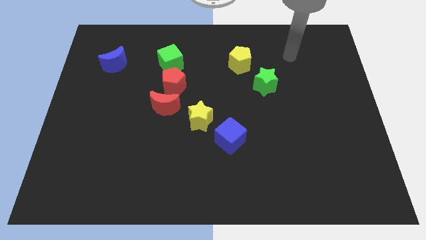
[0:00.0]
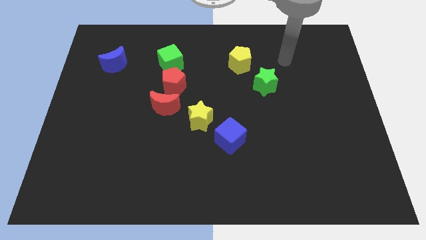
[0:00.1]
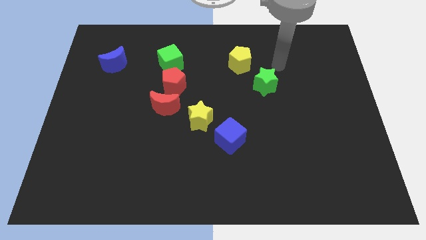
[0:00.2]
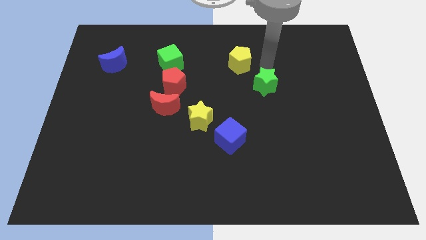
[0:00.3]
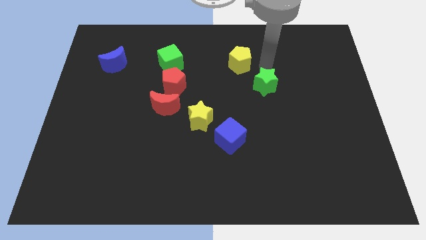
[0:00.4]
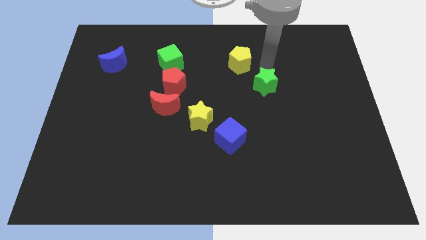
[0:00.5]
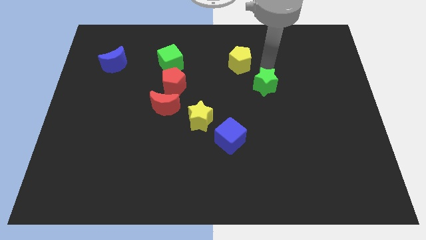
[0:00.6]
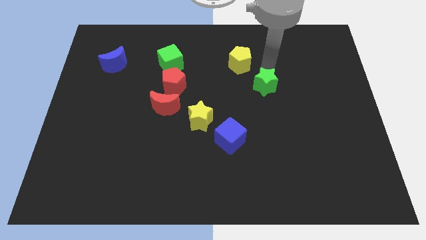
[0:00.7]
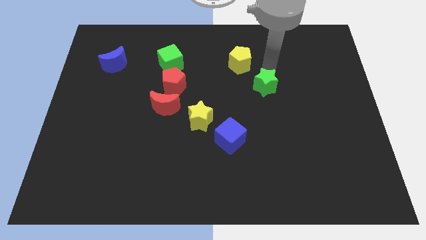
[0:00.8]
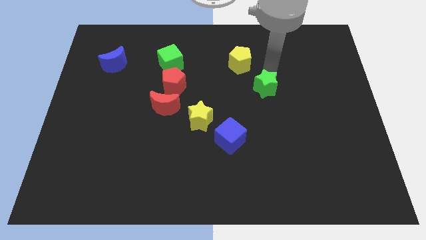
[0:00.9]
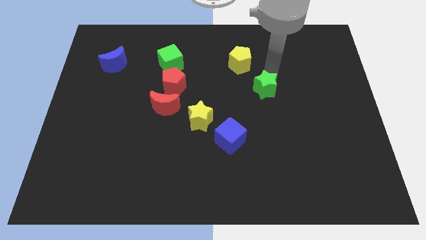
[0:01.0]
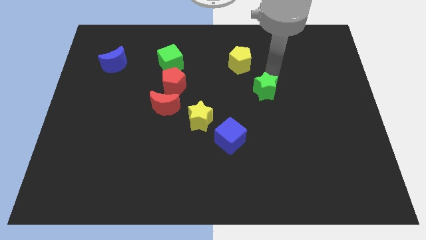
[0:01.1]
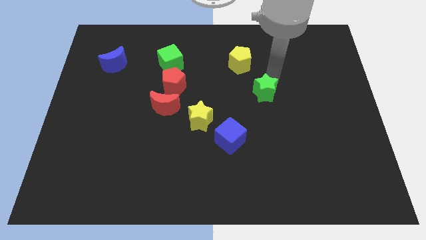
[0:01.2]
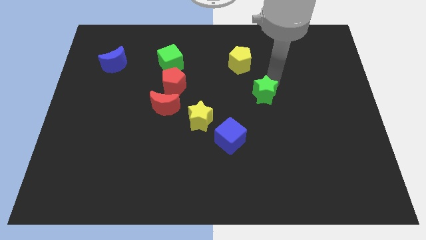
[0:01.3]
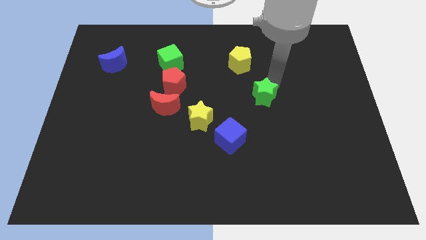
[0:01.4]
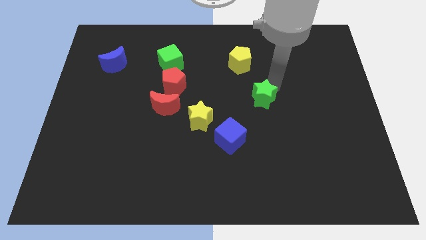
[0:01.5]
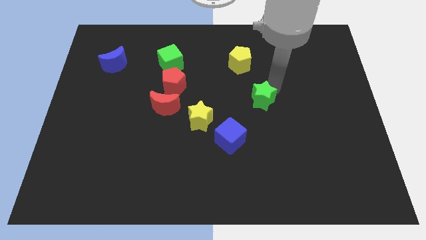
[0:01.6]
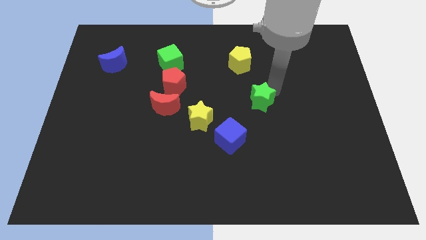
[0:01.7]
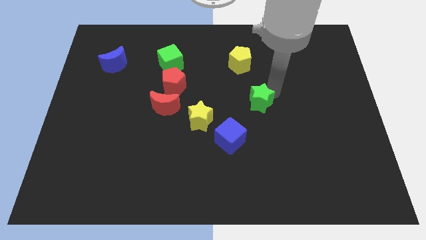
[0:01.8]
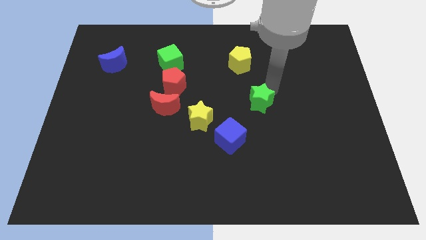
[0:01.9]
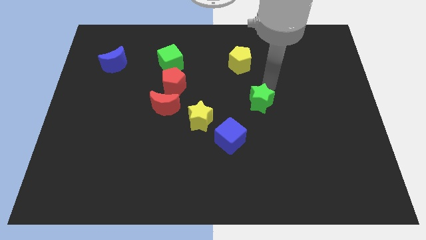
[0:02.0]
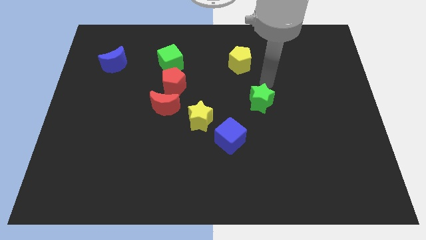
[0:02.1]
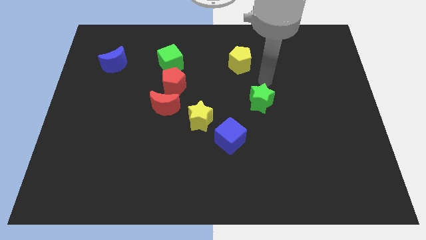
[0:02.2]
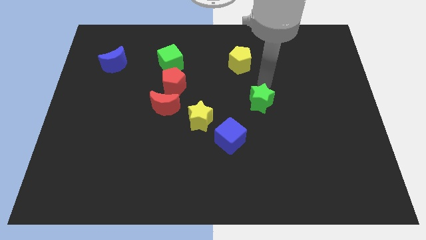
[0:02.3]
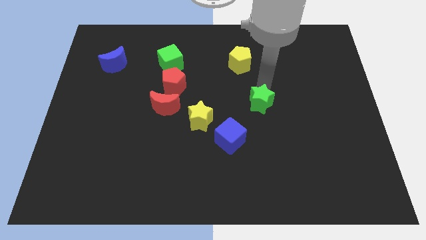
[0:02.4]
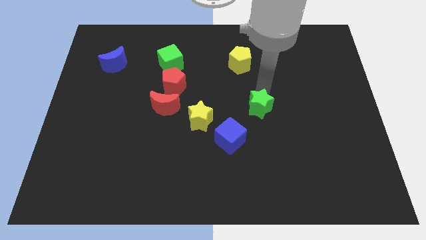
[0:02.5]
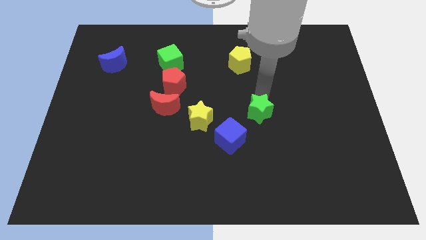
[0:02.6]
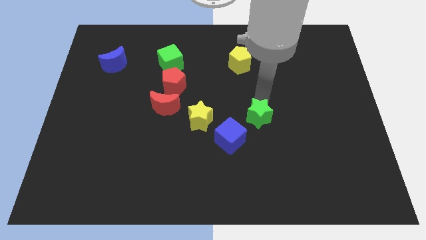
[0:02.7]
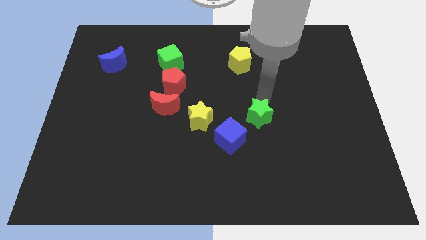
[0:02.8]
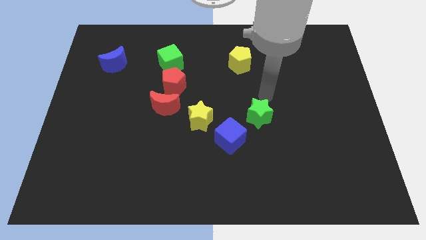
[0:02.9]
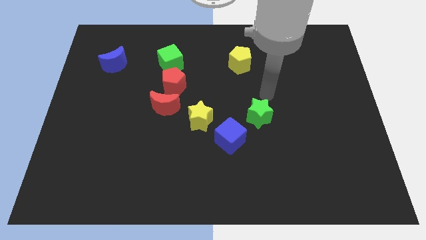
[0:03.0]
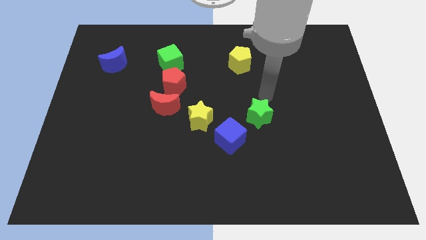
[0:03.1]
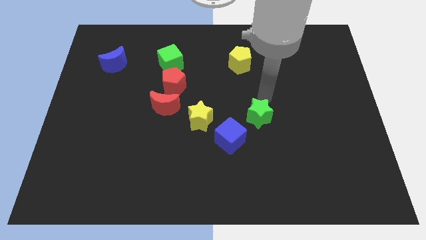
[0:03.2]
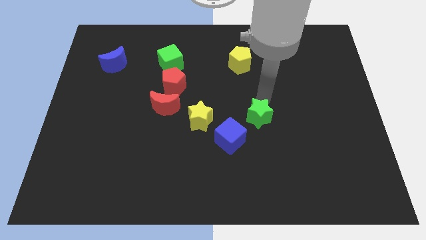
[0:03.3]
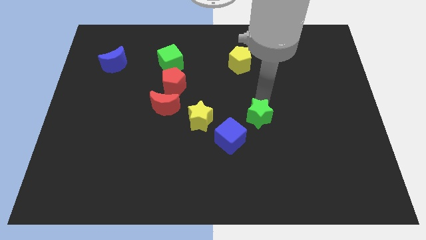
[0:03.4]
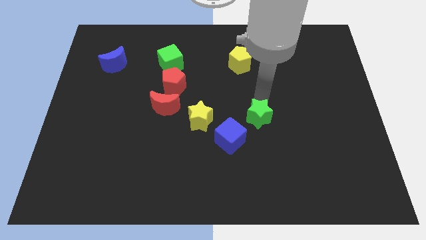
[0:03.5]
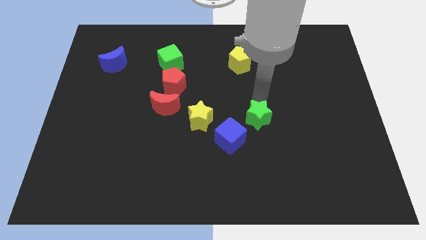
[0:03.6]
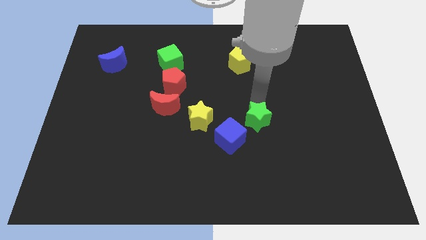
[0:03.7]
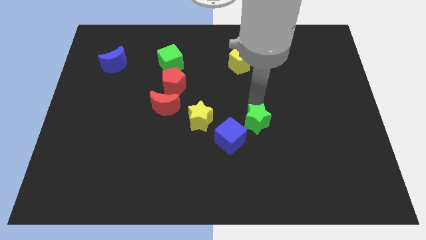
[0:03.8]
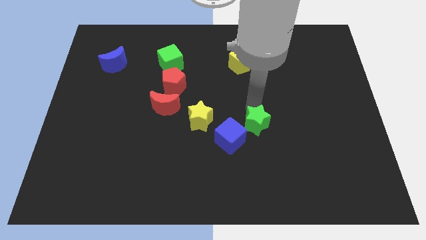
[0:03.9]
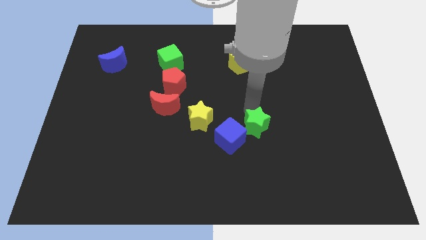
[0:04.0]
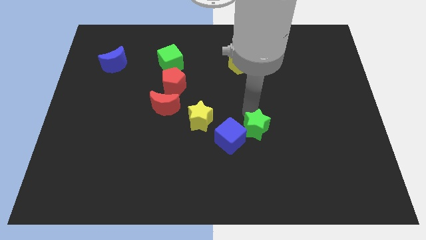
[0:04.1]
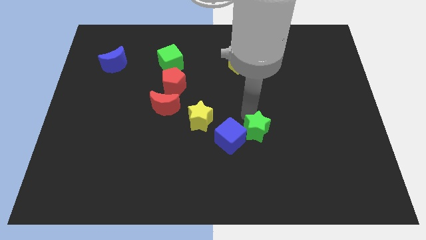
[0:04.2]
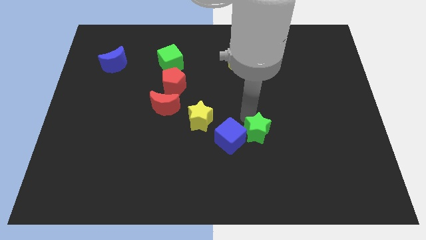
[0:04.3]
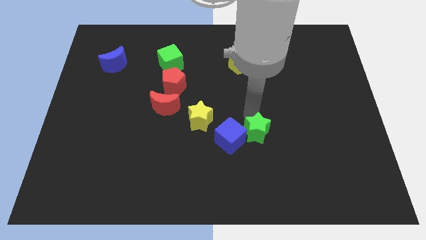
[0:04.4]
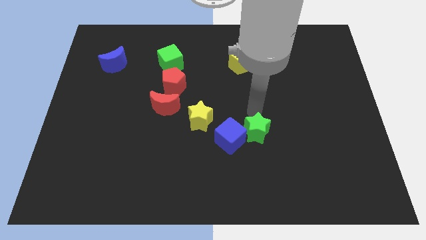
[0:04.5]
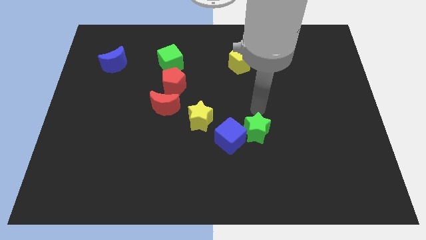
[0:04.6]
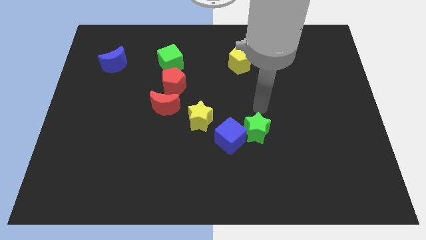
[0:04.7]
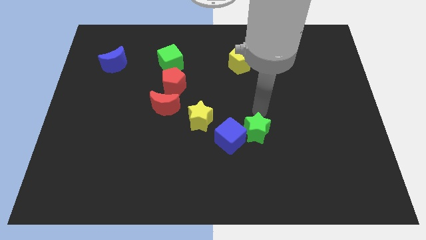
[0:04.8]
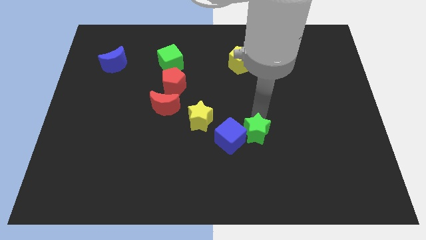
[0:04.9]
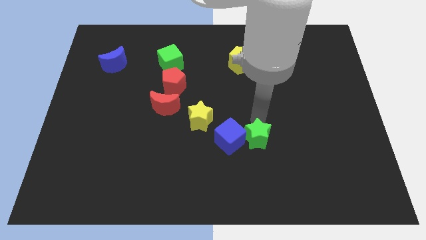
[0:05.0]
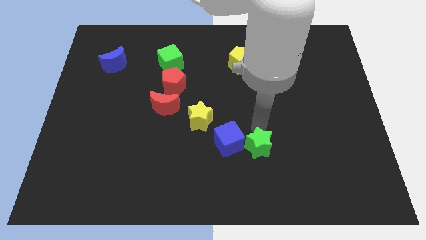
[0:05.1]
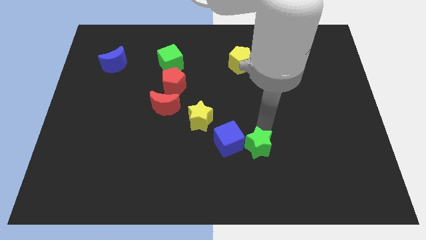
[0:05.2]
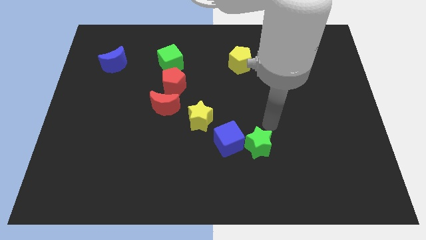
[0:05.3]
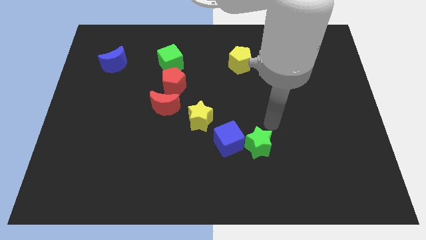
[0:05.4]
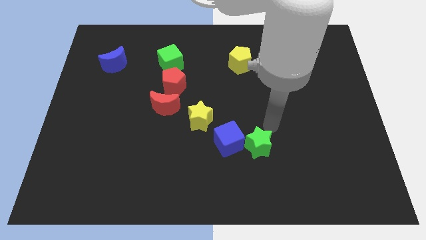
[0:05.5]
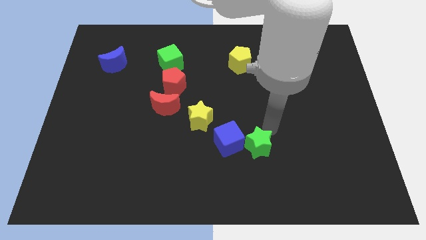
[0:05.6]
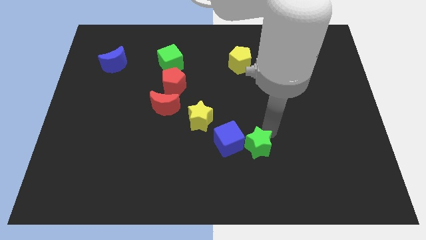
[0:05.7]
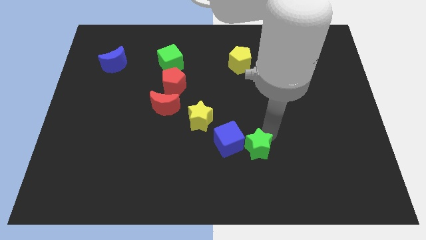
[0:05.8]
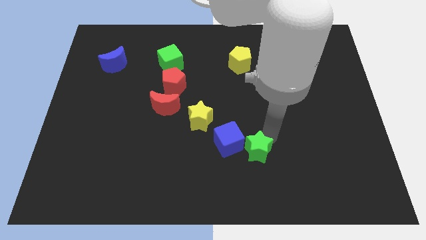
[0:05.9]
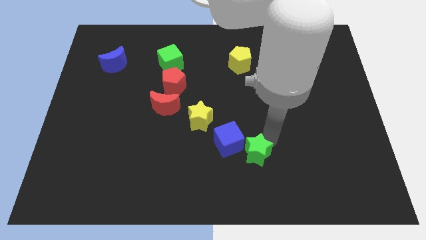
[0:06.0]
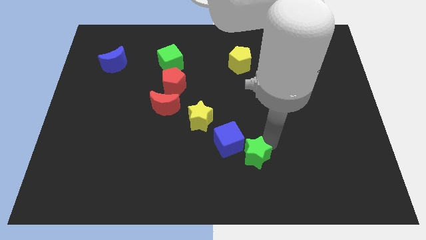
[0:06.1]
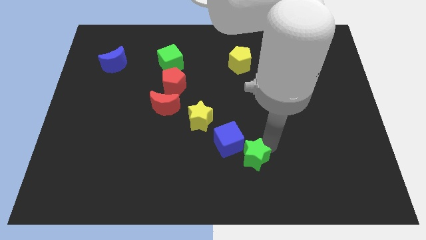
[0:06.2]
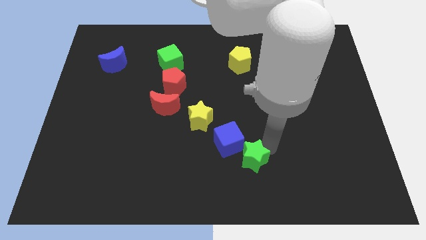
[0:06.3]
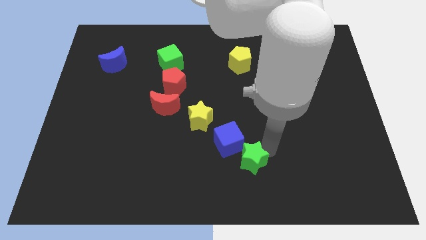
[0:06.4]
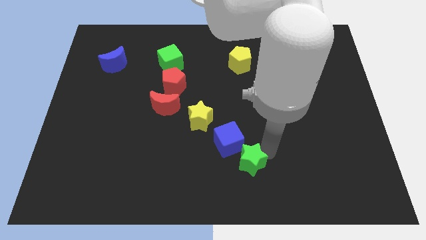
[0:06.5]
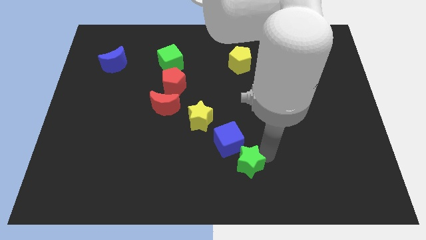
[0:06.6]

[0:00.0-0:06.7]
move the green star to the bottom
